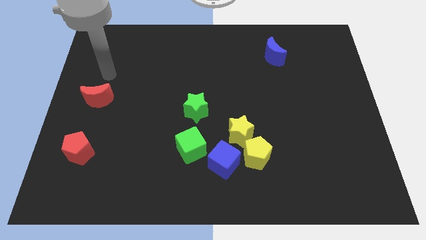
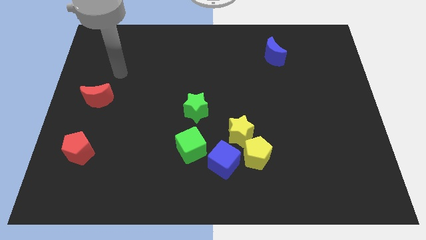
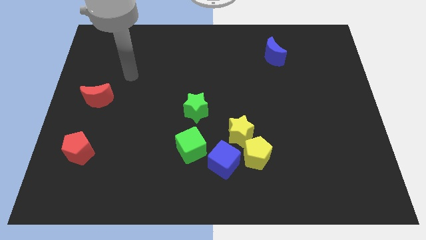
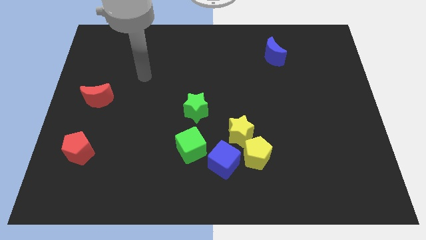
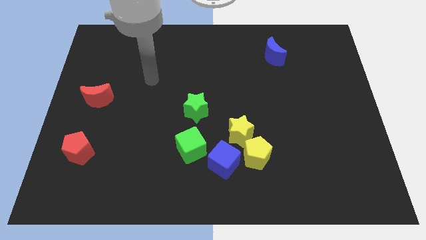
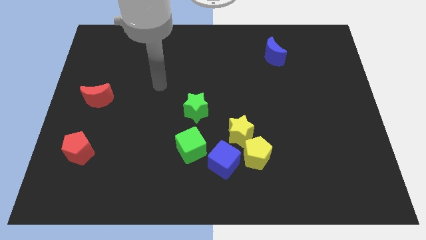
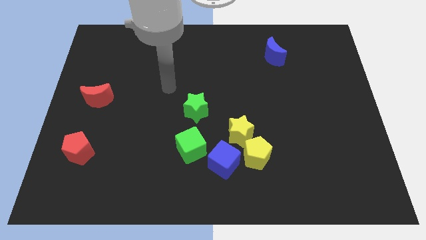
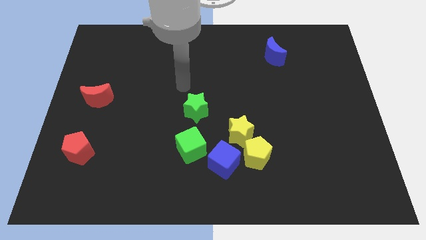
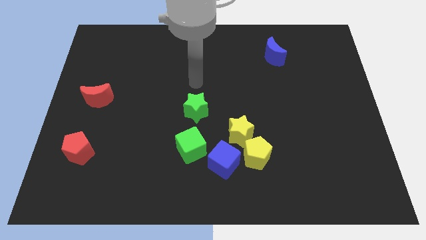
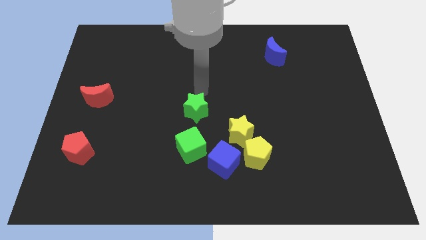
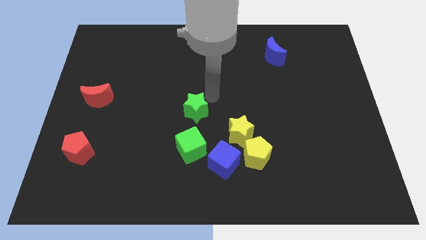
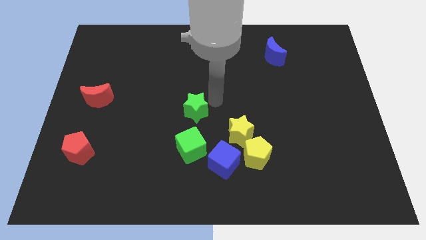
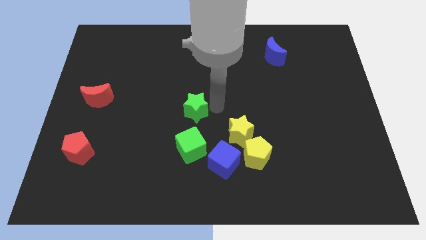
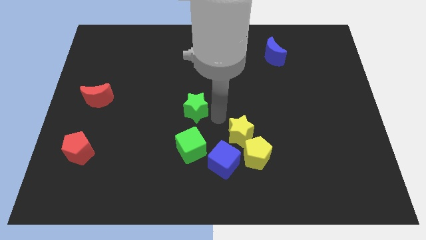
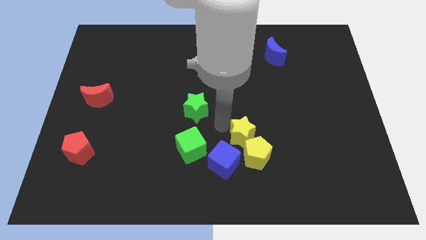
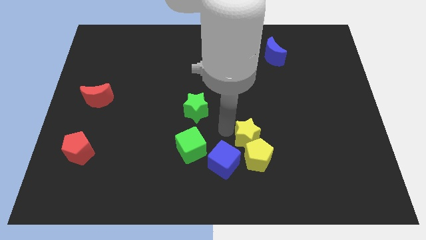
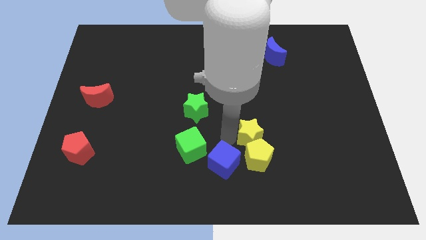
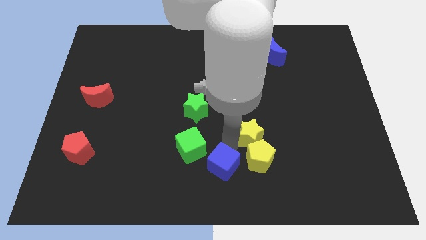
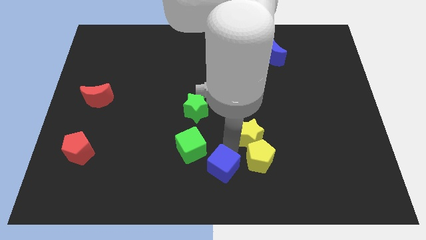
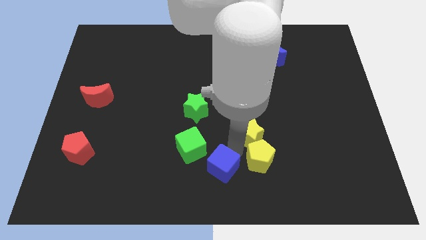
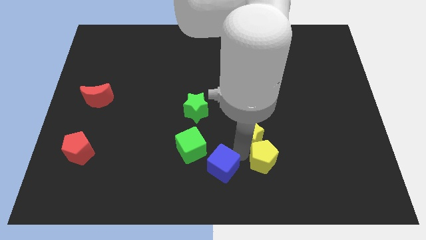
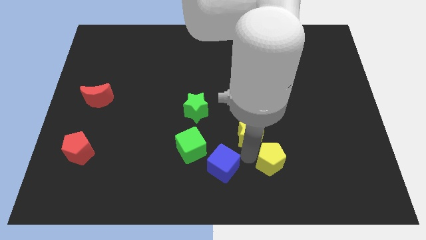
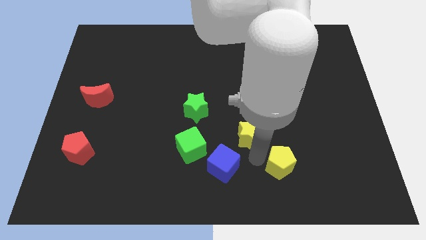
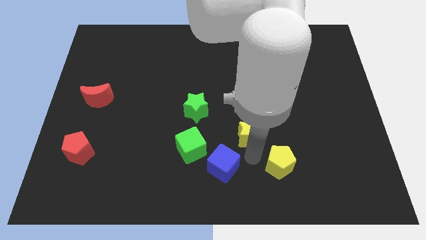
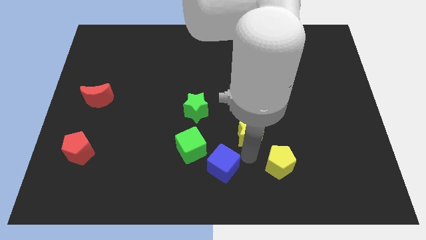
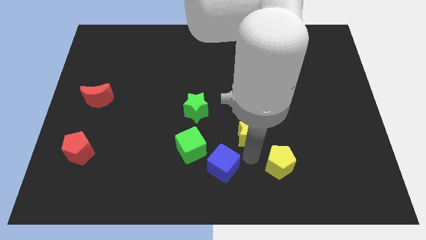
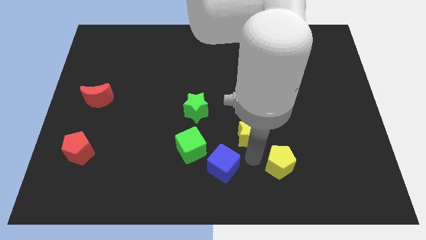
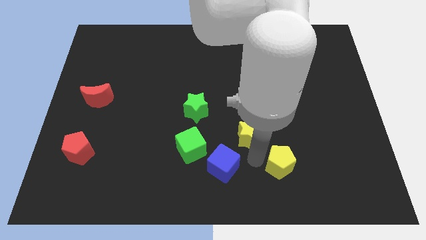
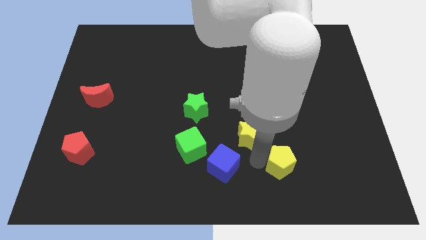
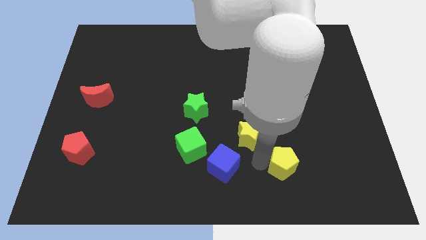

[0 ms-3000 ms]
move the yellow pentagon away from the yellow star and blue cube

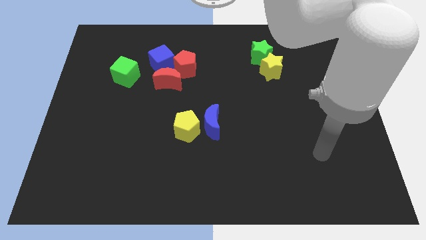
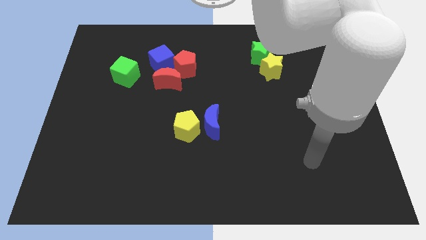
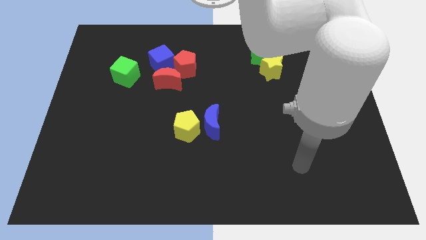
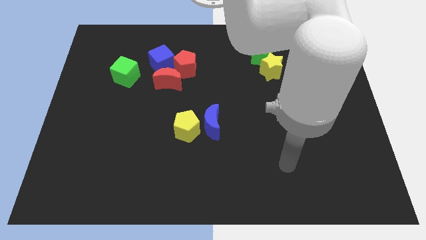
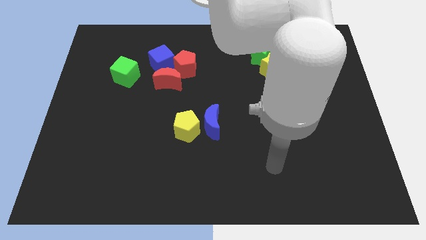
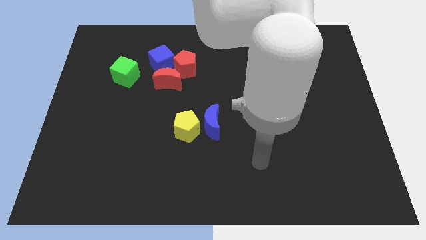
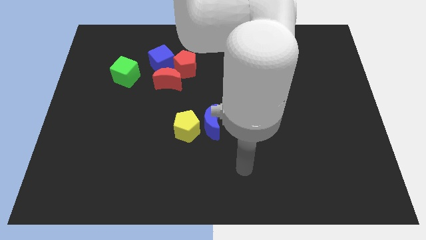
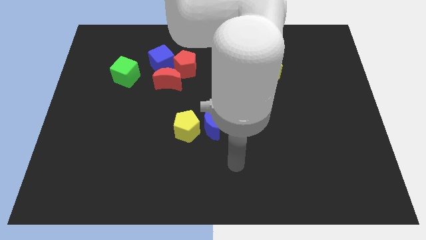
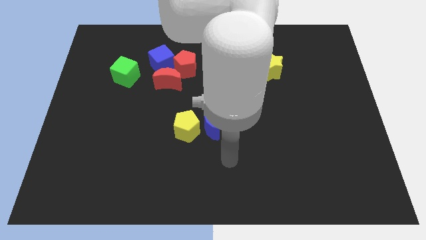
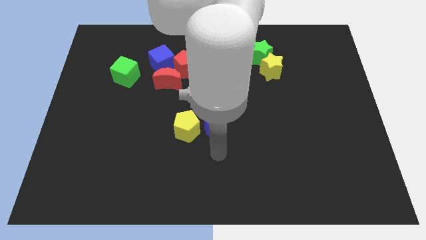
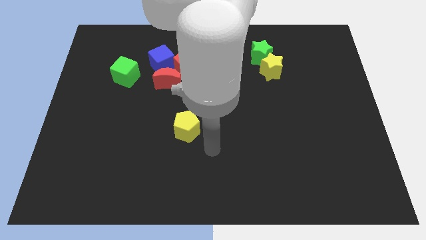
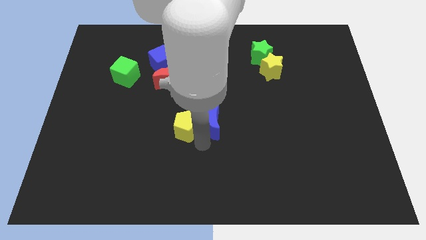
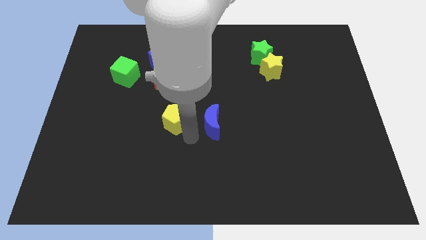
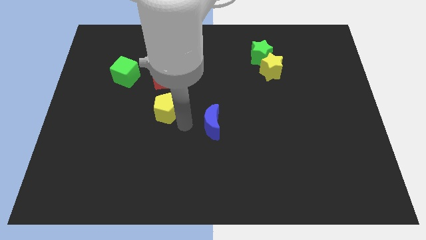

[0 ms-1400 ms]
separate the blue moon from the yellow pentagon

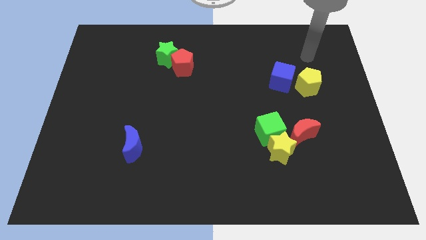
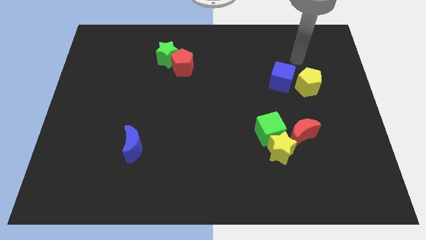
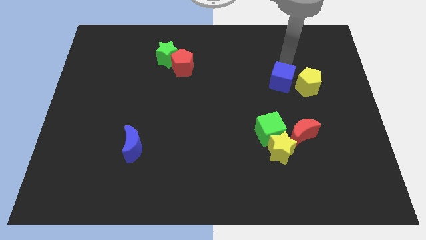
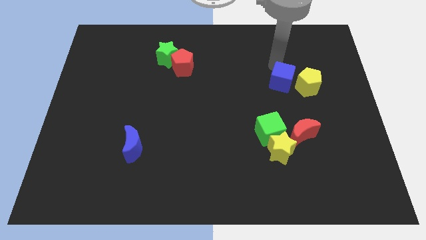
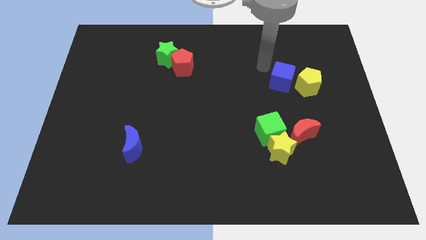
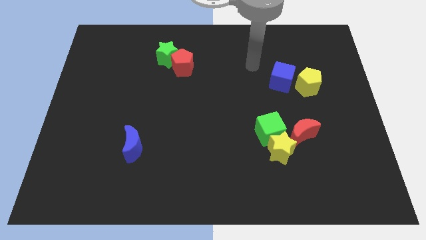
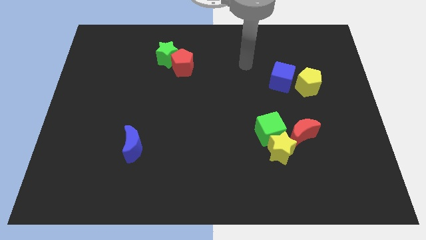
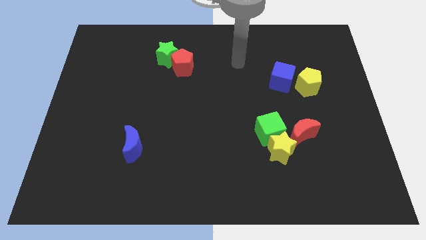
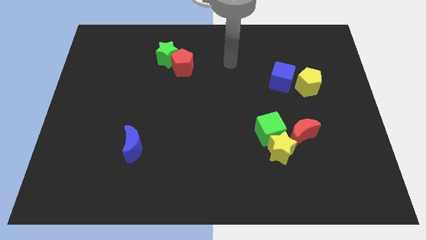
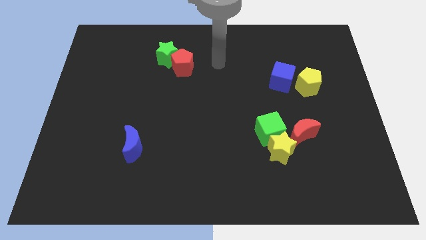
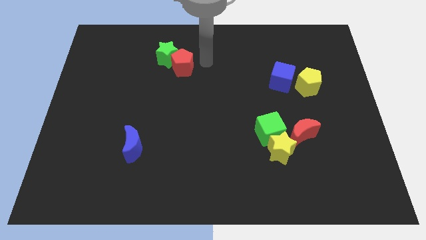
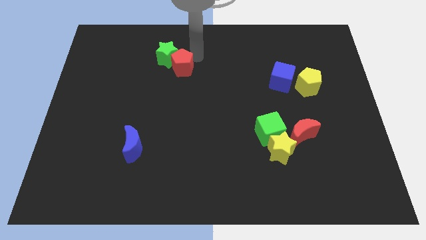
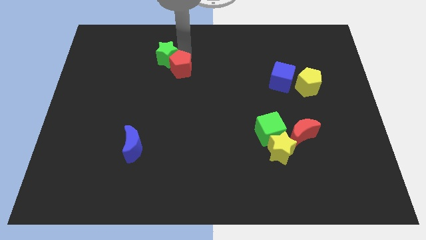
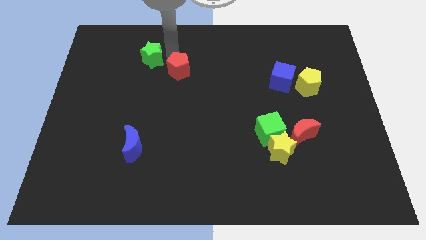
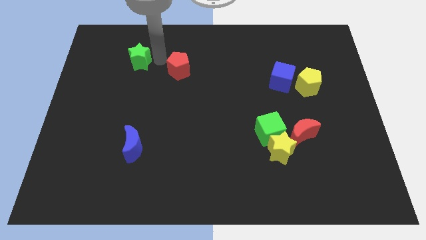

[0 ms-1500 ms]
pull the red pentagon apart from the green star

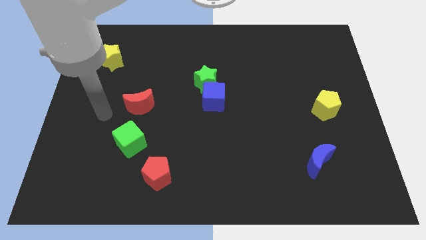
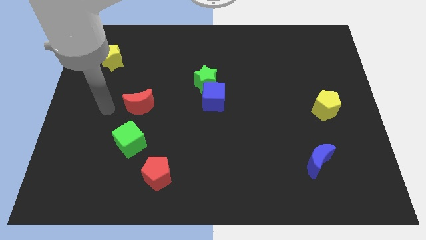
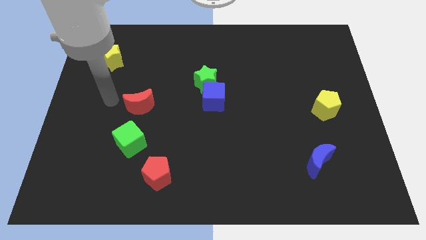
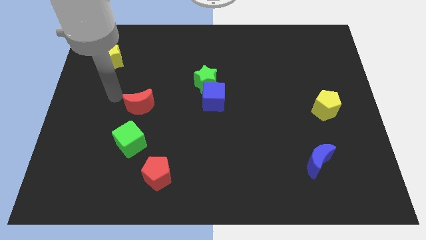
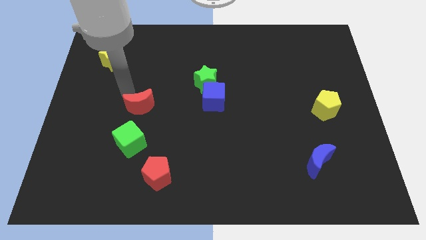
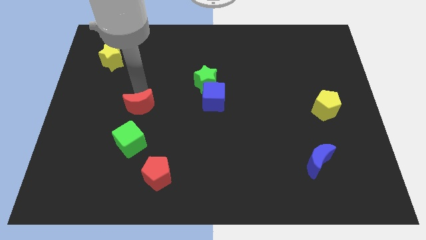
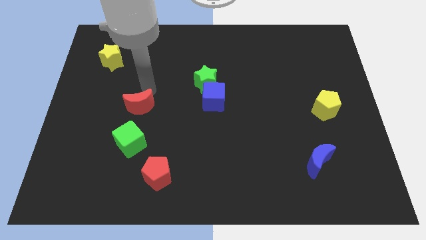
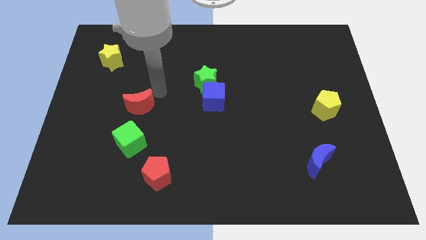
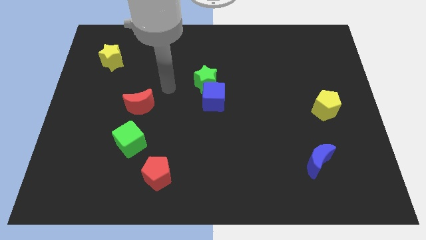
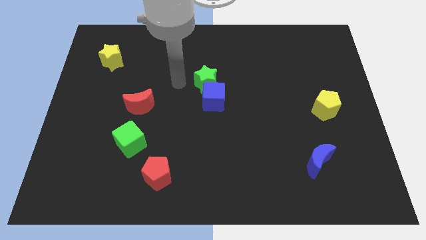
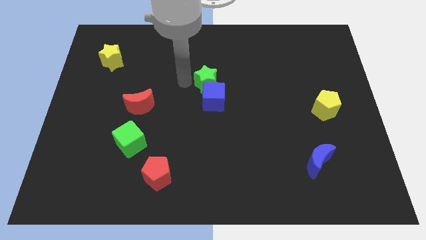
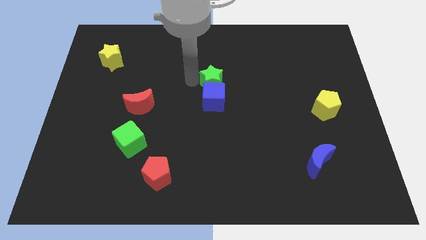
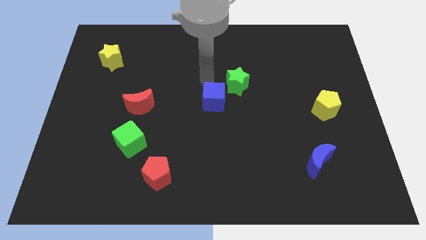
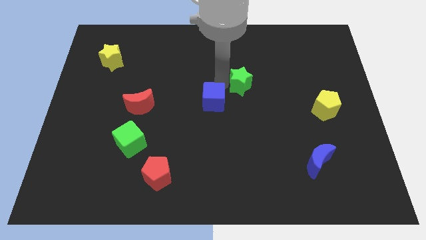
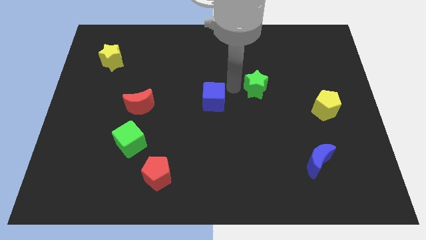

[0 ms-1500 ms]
pull the blue cube apart from the green star

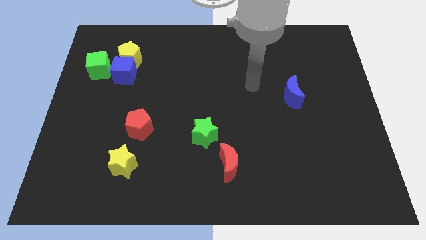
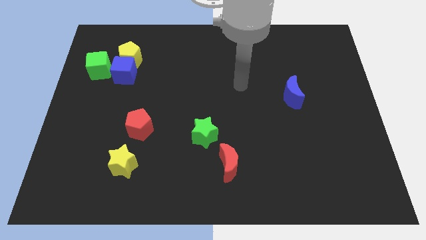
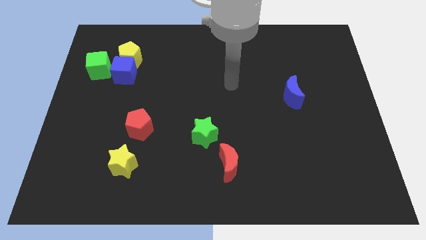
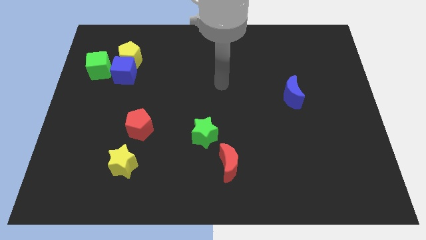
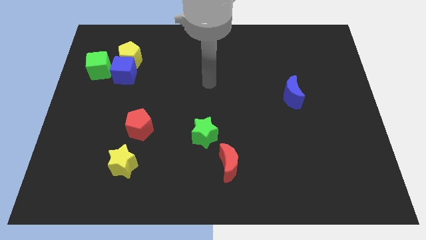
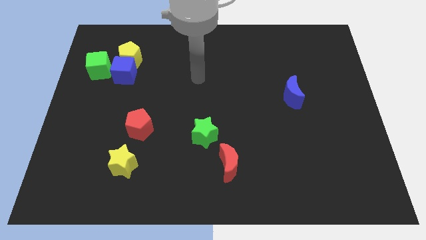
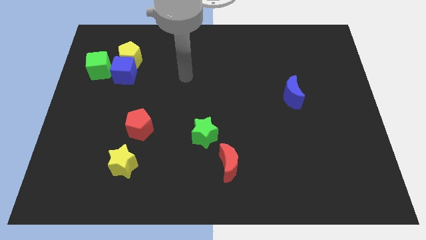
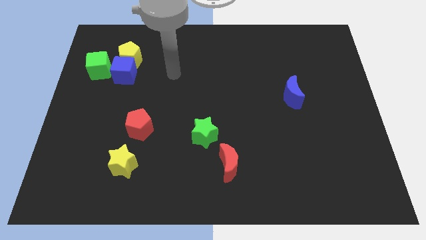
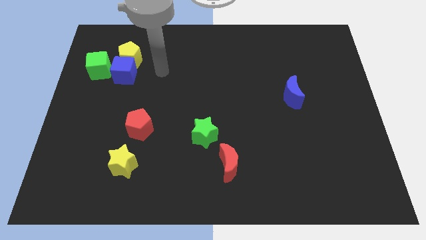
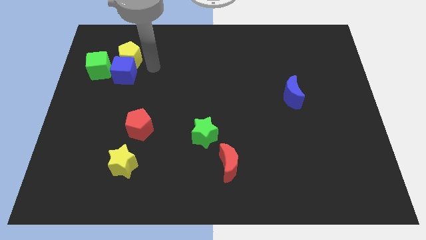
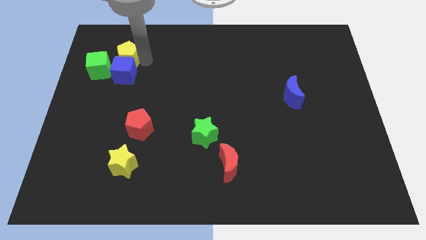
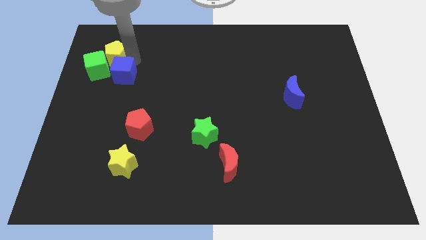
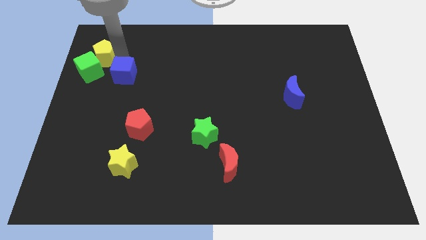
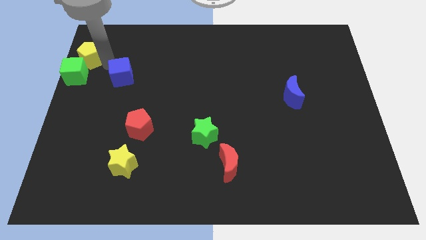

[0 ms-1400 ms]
move the blue cube away from the yellow pentagon and green cube

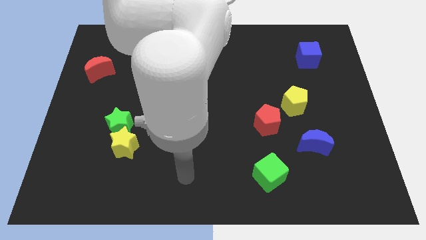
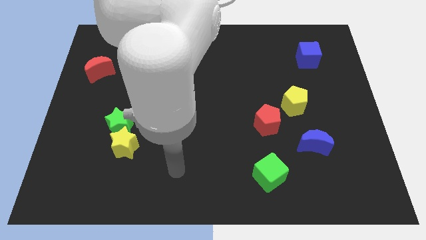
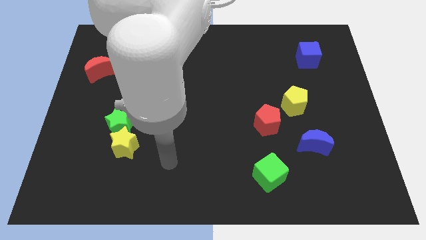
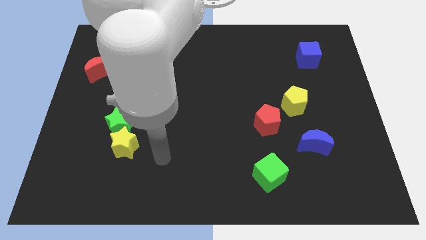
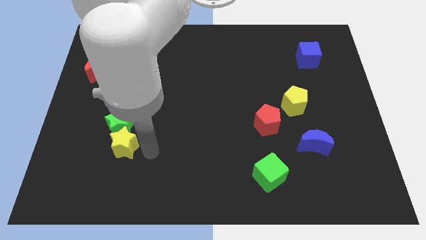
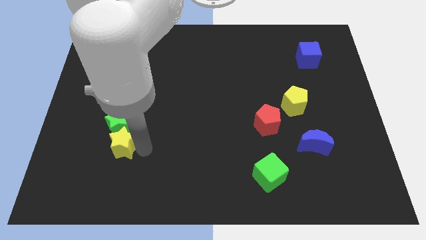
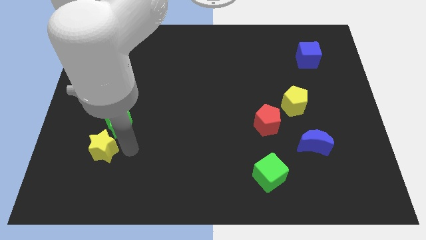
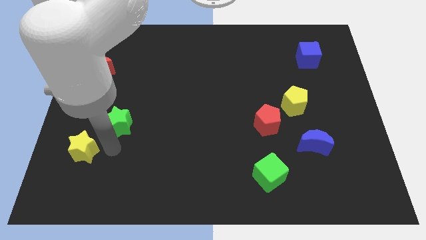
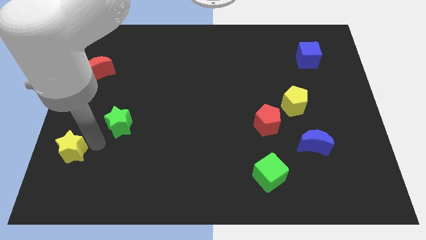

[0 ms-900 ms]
separate the green star from the yellow star
